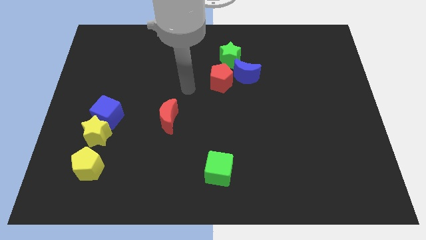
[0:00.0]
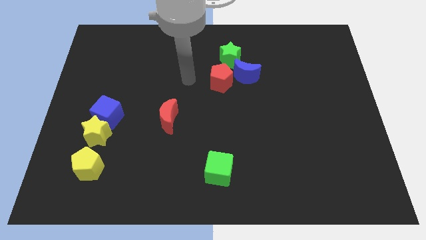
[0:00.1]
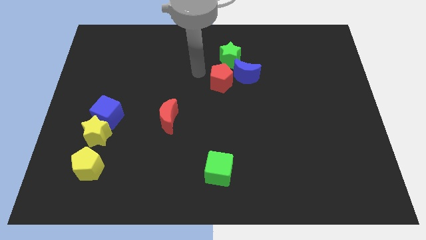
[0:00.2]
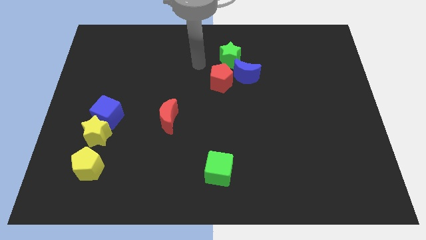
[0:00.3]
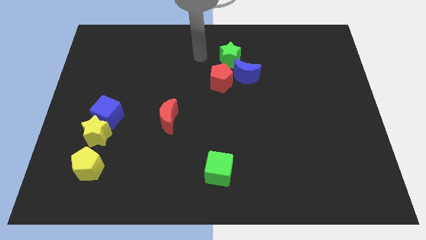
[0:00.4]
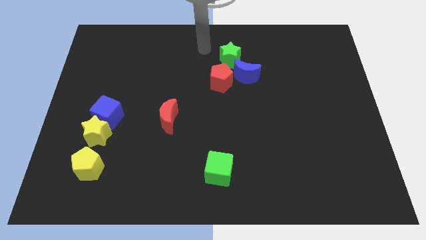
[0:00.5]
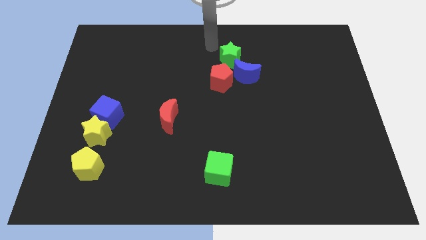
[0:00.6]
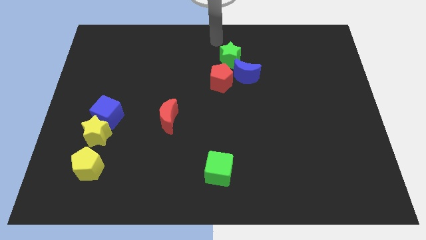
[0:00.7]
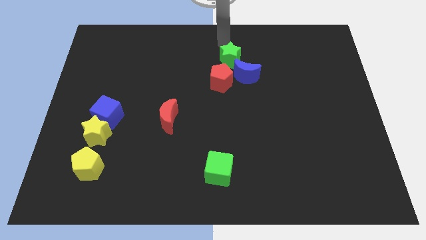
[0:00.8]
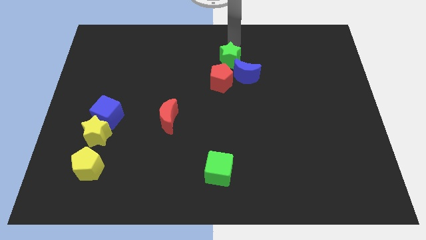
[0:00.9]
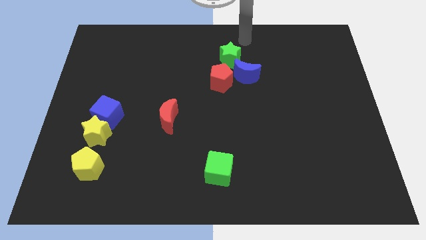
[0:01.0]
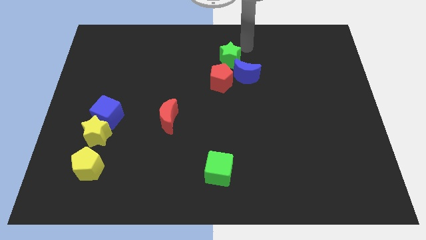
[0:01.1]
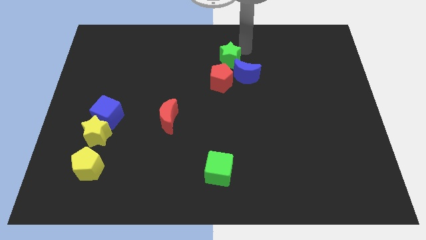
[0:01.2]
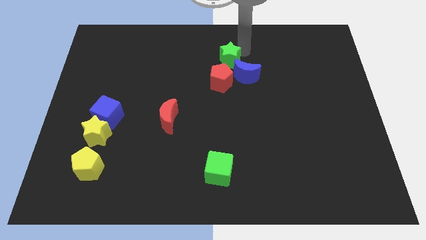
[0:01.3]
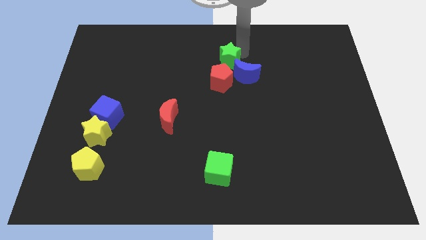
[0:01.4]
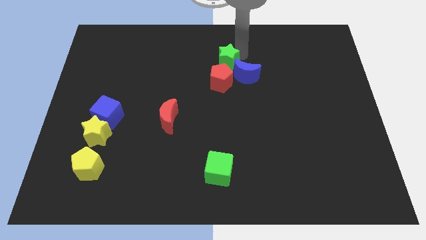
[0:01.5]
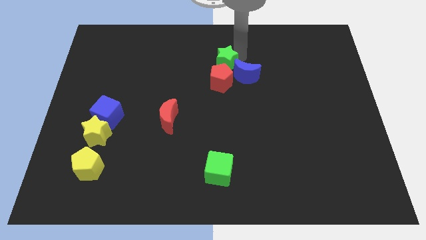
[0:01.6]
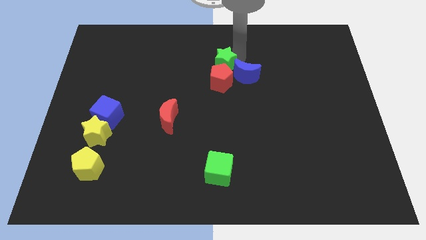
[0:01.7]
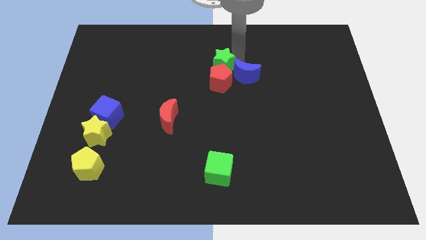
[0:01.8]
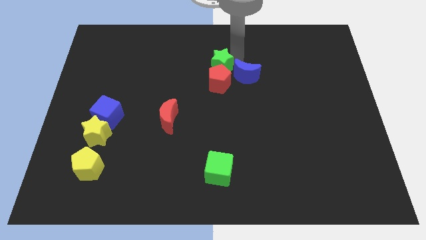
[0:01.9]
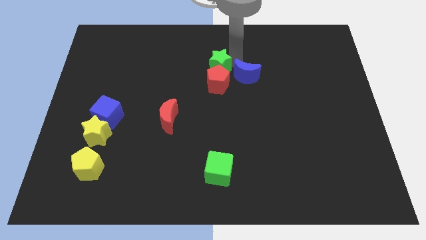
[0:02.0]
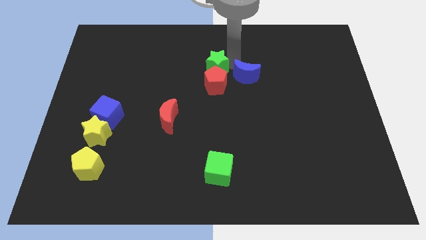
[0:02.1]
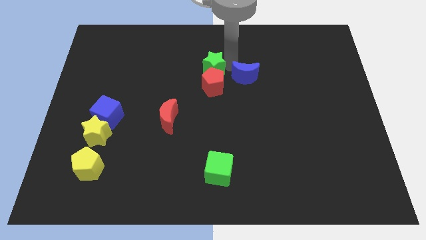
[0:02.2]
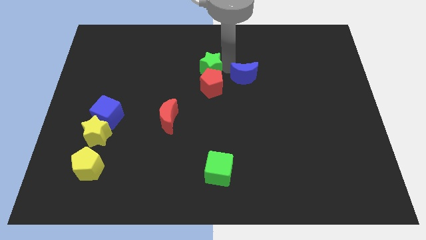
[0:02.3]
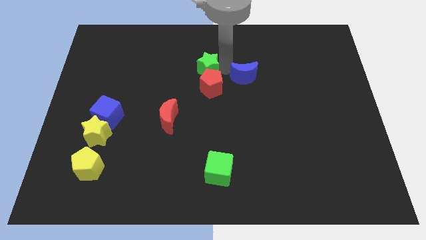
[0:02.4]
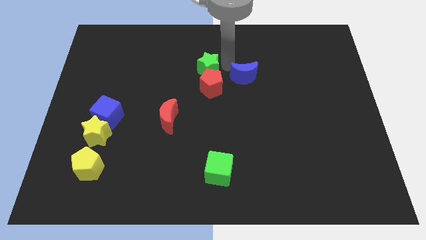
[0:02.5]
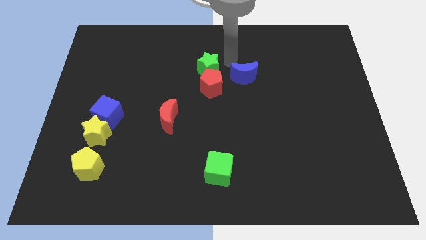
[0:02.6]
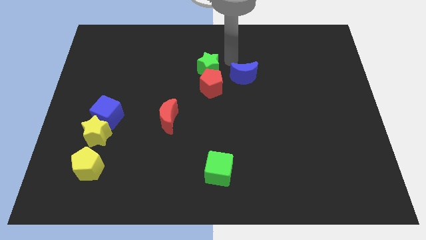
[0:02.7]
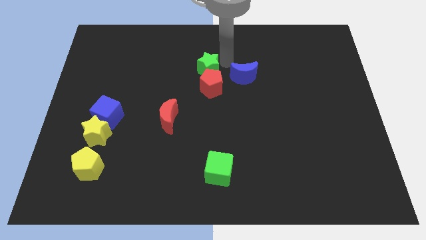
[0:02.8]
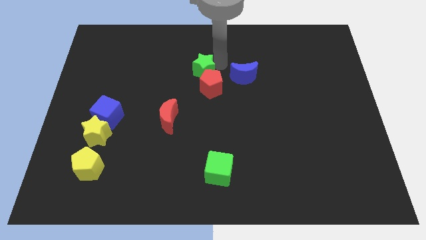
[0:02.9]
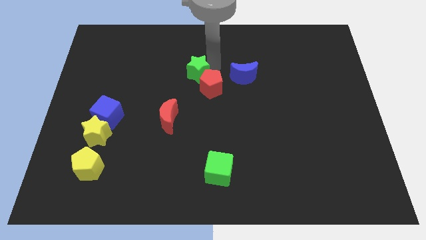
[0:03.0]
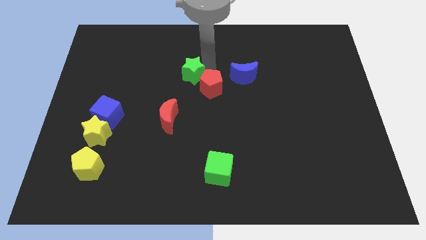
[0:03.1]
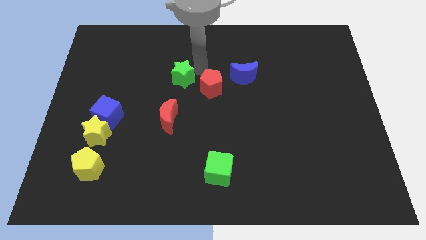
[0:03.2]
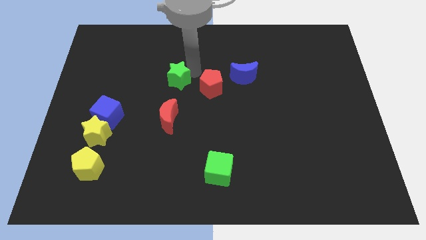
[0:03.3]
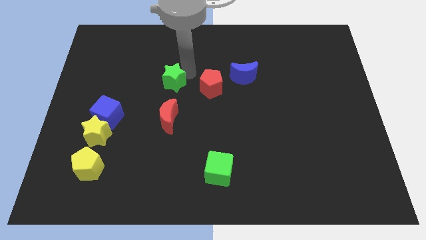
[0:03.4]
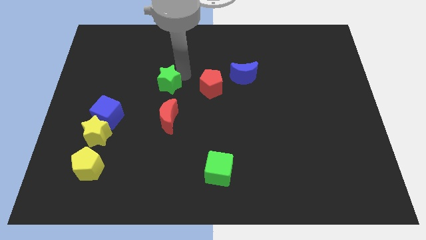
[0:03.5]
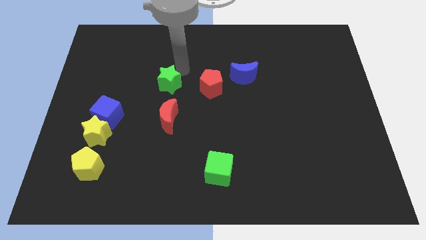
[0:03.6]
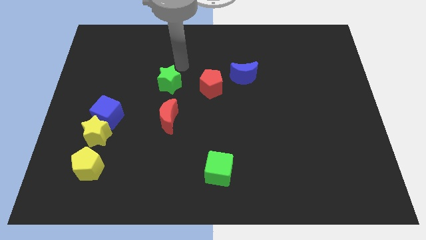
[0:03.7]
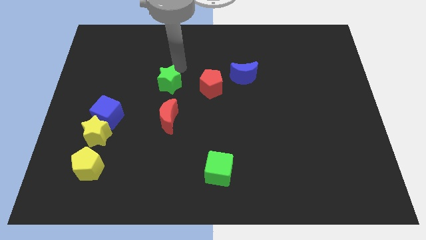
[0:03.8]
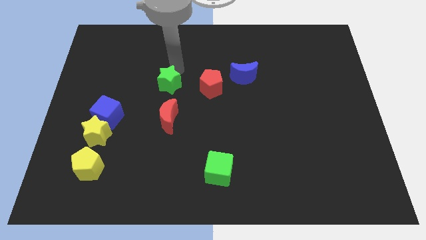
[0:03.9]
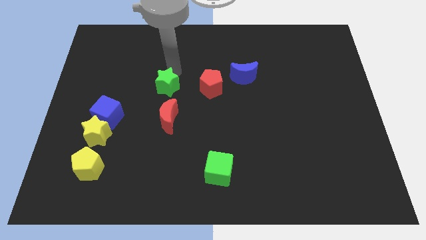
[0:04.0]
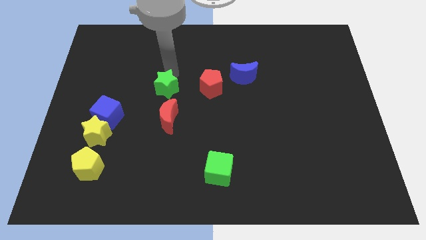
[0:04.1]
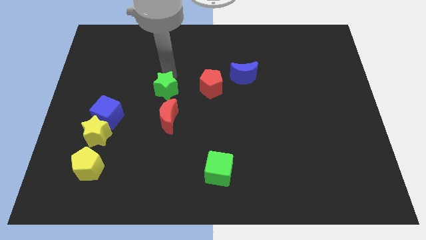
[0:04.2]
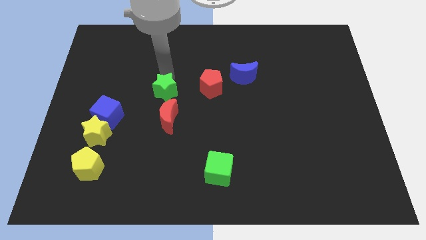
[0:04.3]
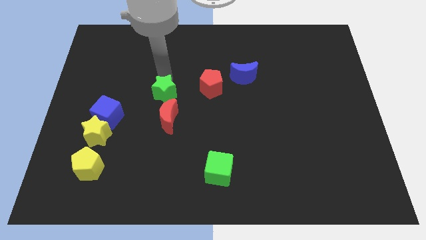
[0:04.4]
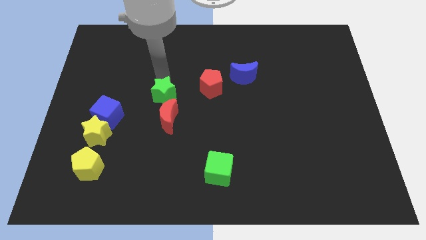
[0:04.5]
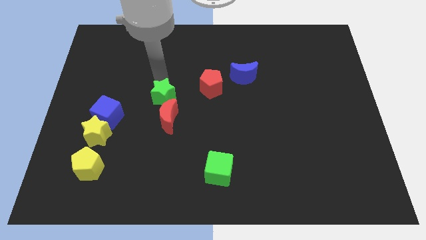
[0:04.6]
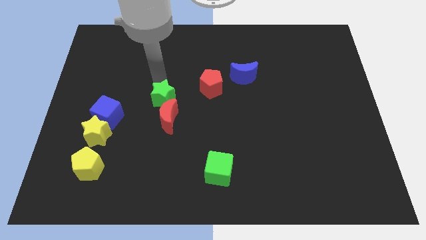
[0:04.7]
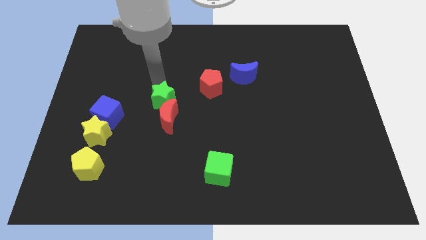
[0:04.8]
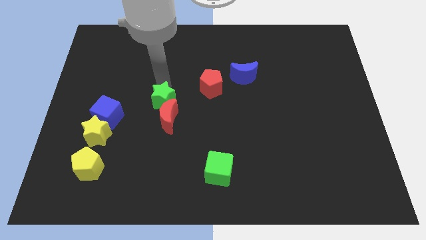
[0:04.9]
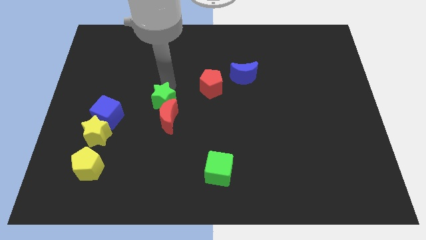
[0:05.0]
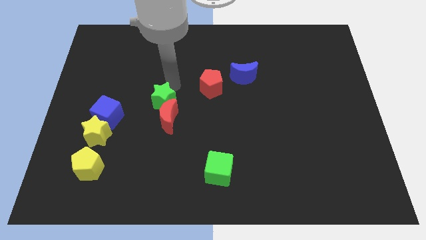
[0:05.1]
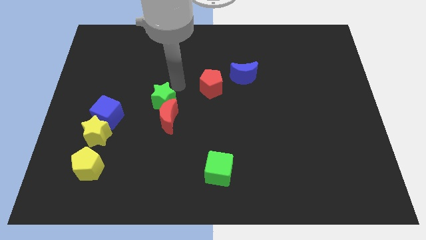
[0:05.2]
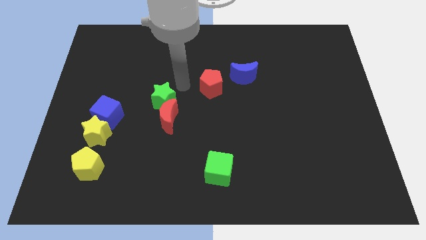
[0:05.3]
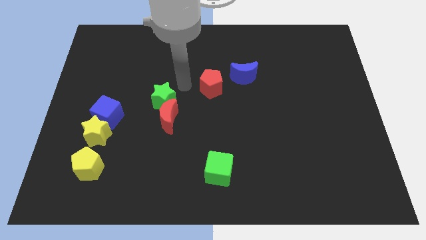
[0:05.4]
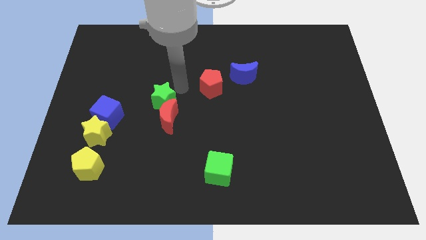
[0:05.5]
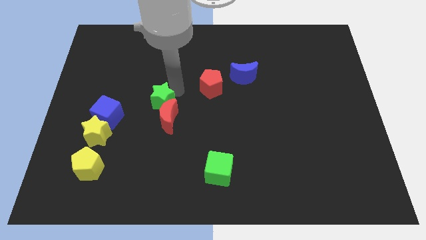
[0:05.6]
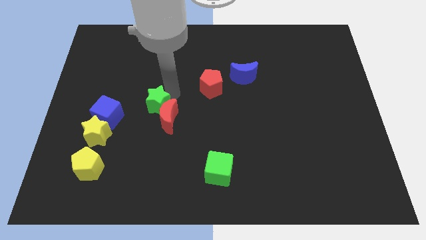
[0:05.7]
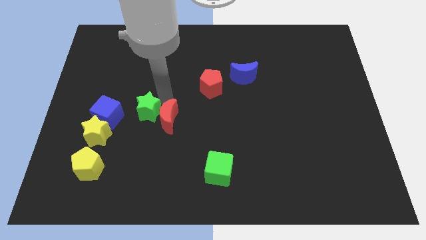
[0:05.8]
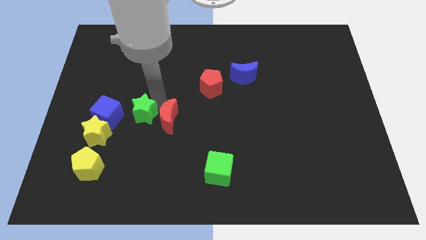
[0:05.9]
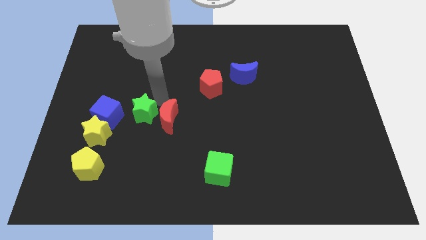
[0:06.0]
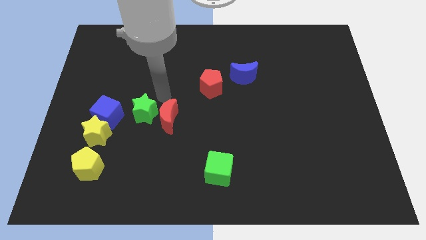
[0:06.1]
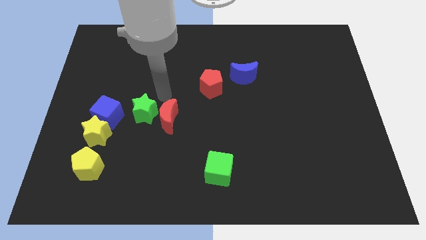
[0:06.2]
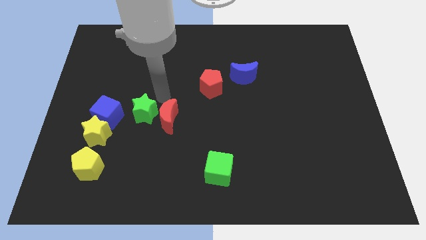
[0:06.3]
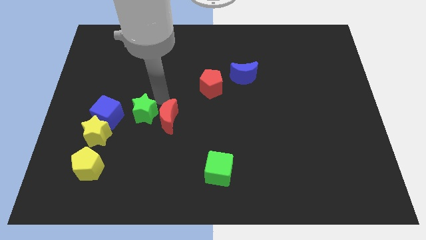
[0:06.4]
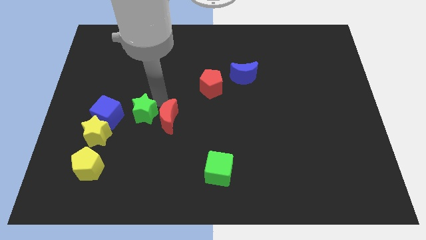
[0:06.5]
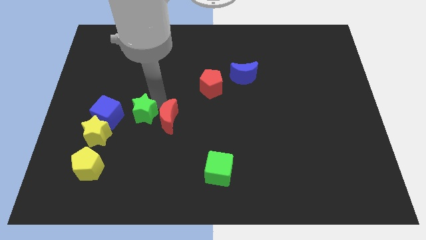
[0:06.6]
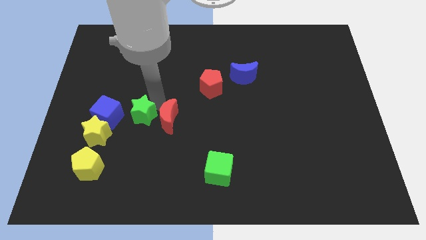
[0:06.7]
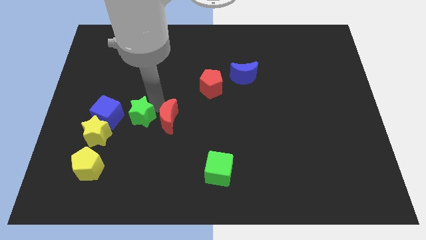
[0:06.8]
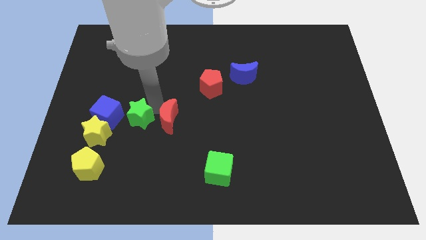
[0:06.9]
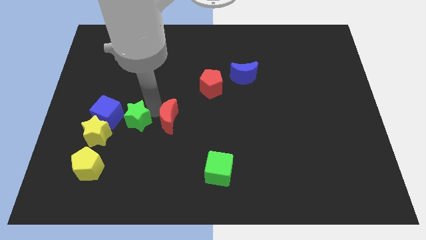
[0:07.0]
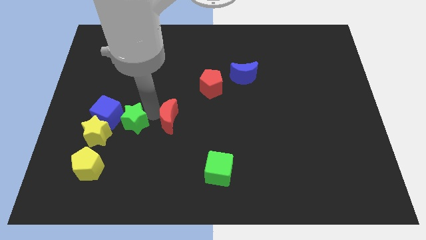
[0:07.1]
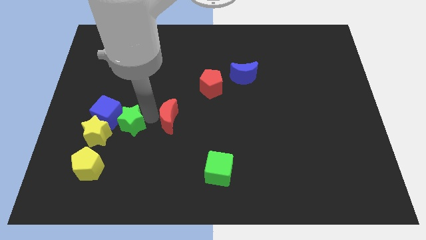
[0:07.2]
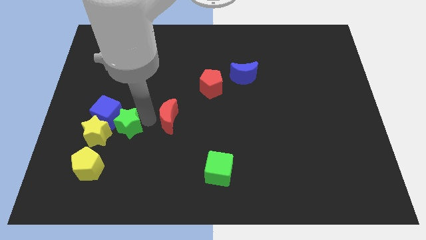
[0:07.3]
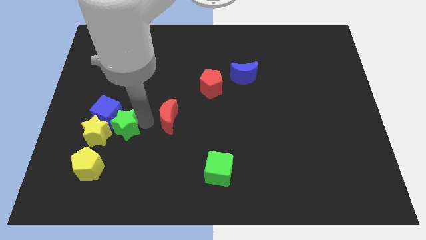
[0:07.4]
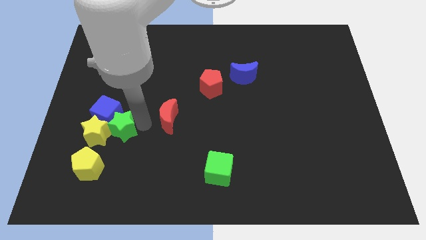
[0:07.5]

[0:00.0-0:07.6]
move the green star towards the yellow star

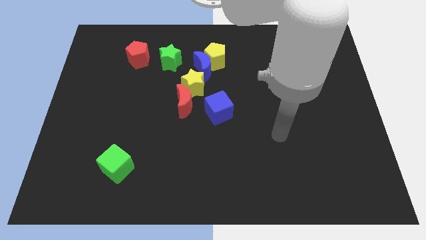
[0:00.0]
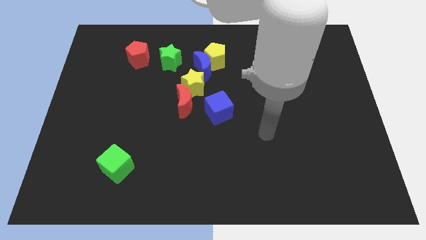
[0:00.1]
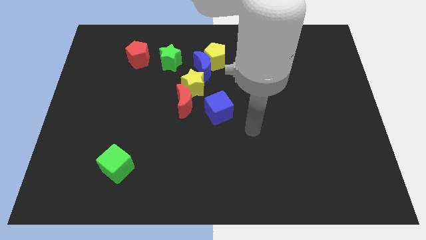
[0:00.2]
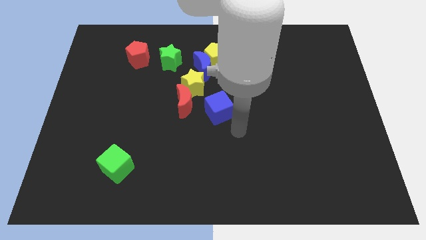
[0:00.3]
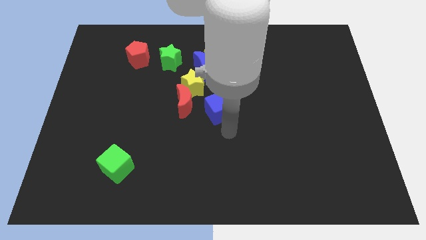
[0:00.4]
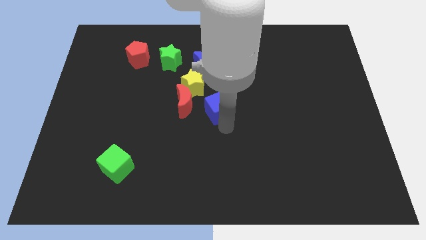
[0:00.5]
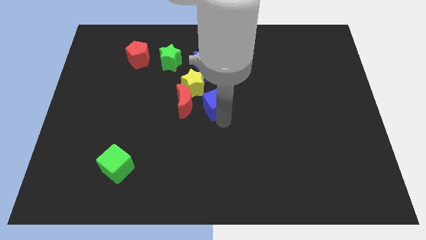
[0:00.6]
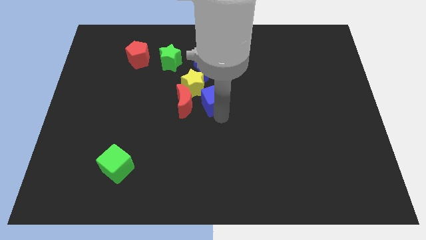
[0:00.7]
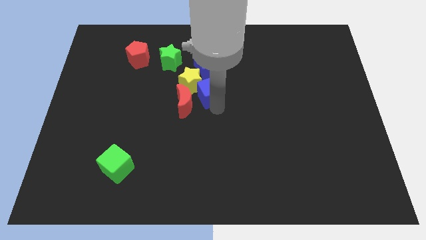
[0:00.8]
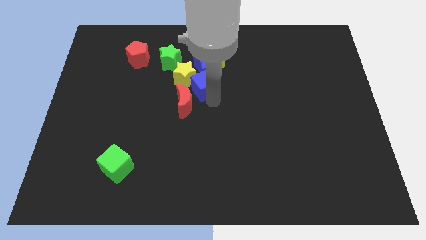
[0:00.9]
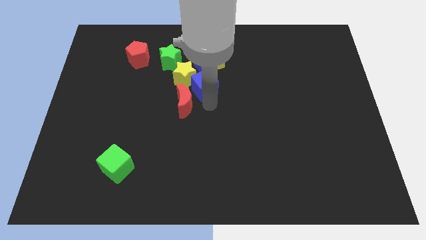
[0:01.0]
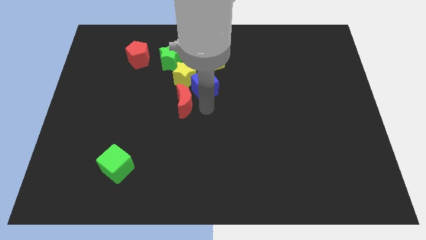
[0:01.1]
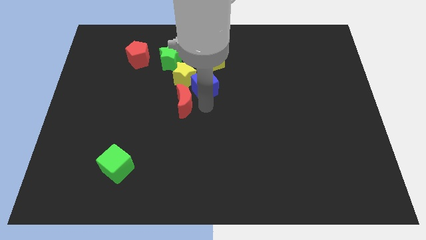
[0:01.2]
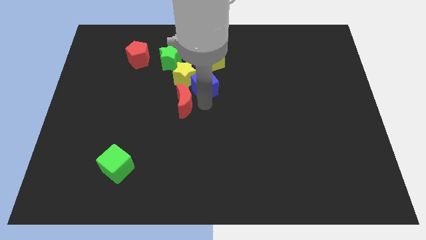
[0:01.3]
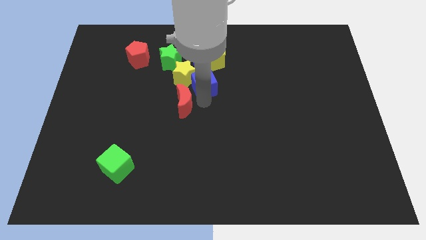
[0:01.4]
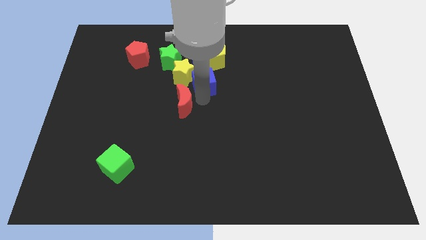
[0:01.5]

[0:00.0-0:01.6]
push the blue cube next to the blue moon
